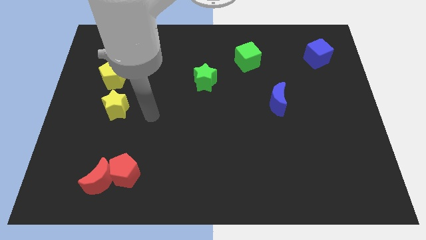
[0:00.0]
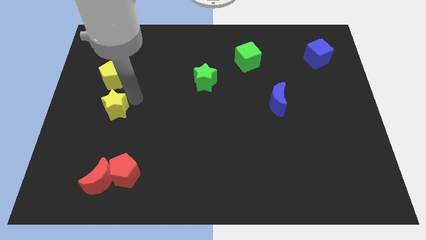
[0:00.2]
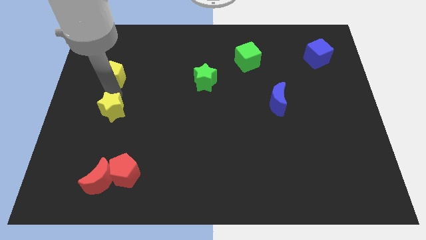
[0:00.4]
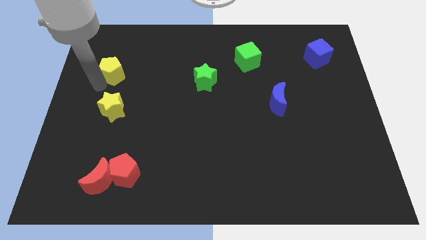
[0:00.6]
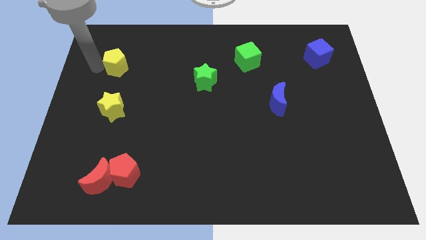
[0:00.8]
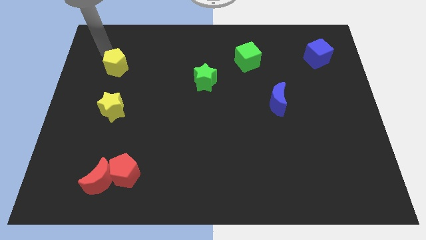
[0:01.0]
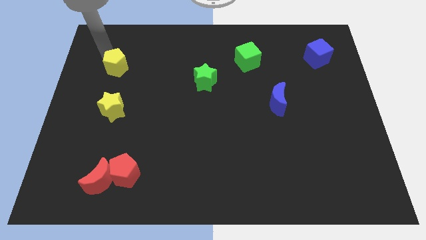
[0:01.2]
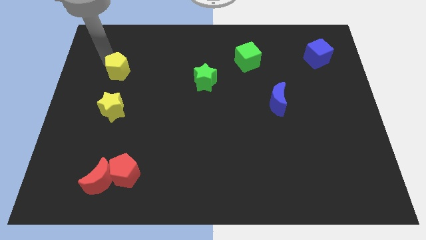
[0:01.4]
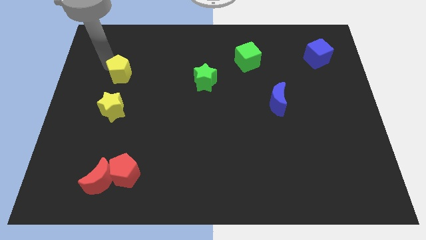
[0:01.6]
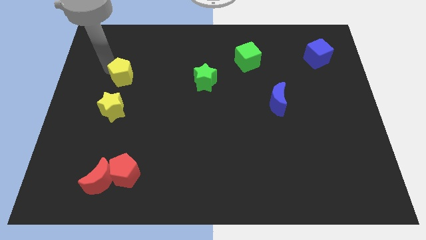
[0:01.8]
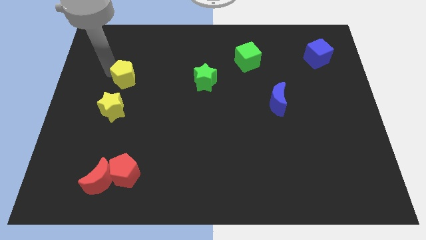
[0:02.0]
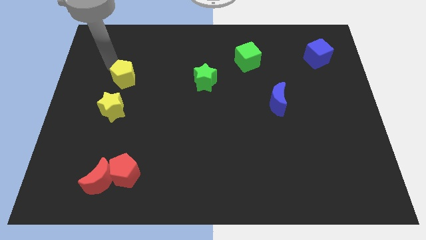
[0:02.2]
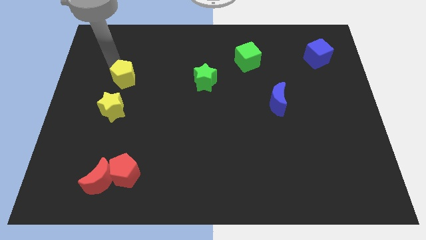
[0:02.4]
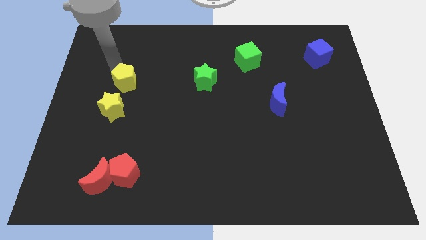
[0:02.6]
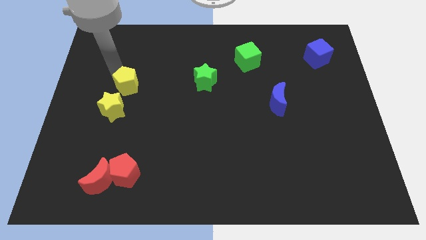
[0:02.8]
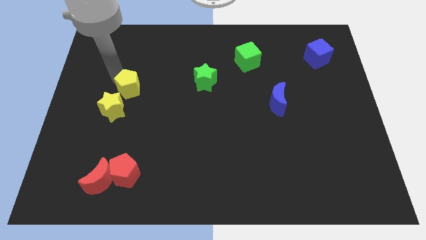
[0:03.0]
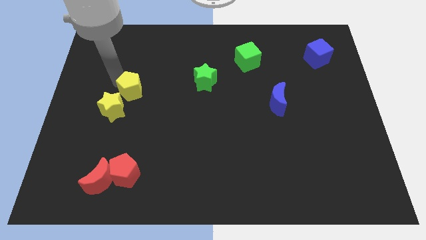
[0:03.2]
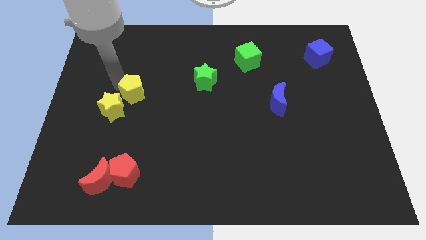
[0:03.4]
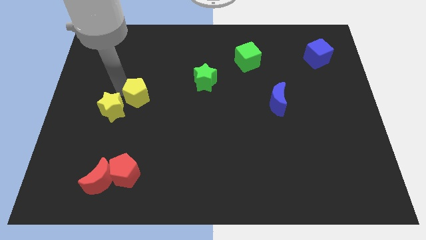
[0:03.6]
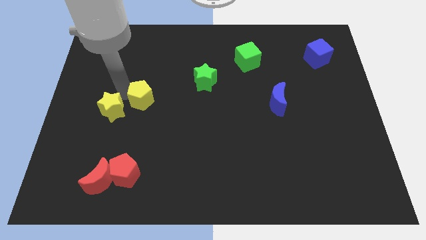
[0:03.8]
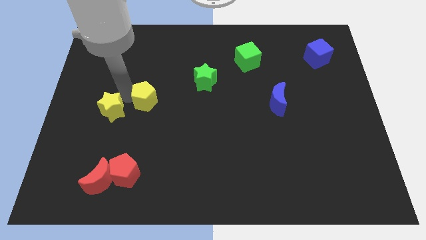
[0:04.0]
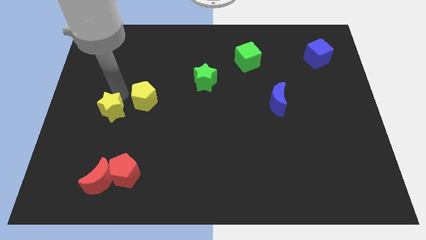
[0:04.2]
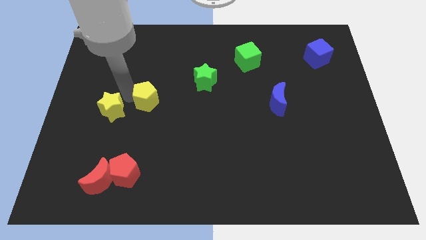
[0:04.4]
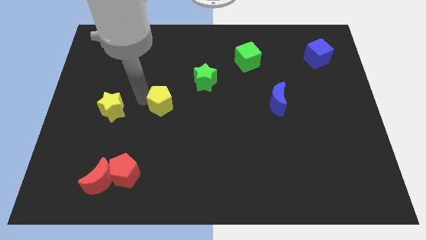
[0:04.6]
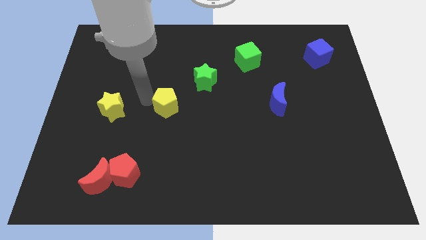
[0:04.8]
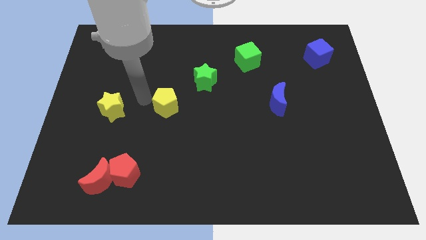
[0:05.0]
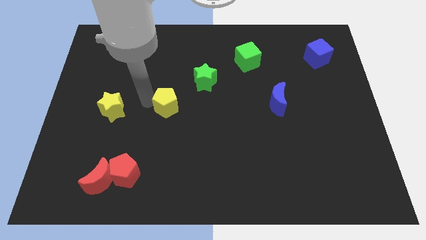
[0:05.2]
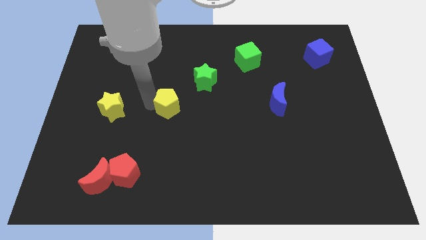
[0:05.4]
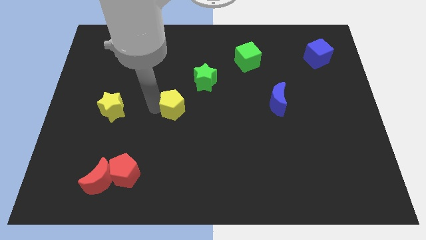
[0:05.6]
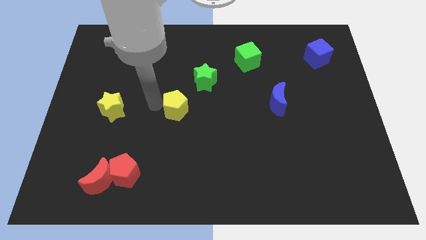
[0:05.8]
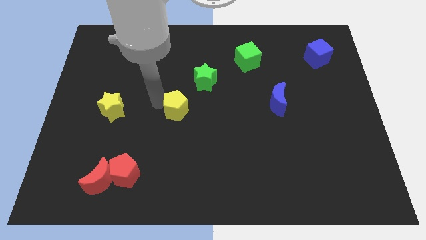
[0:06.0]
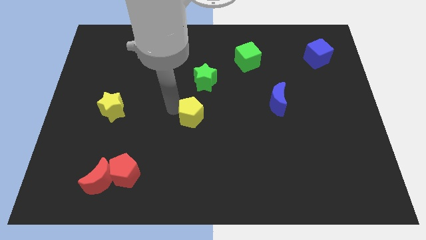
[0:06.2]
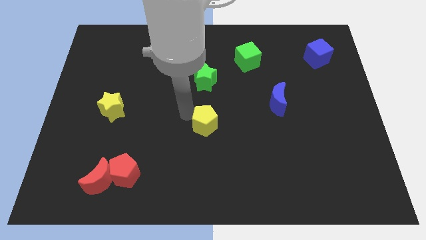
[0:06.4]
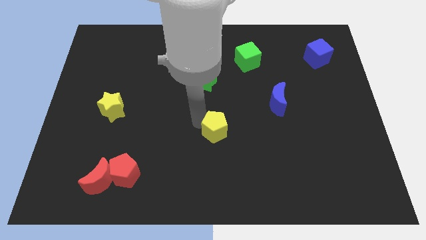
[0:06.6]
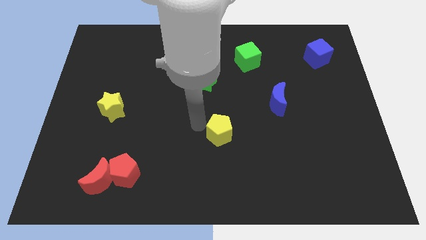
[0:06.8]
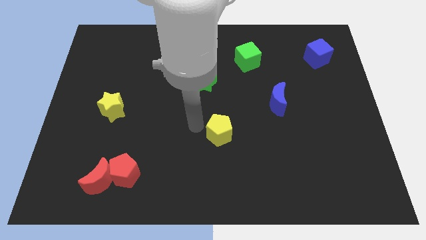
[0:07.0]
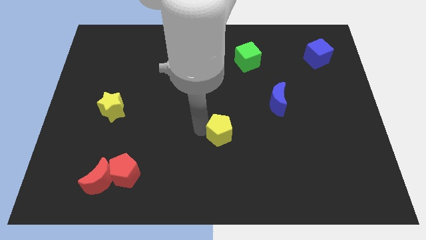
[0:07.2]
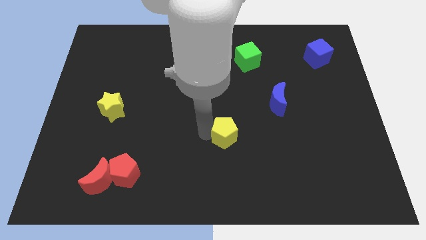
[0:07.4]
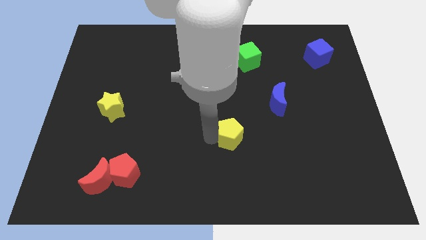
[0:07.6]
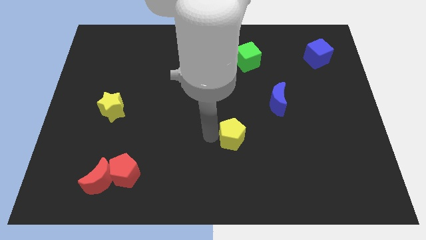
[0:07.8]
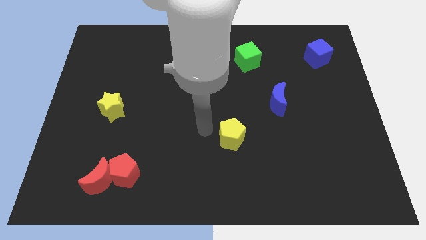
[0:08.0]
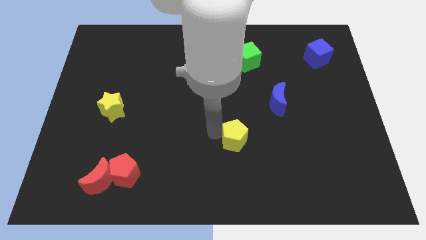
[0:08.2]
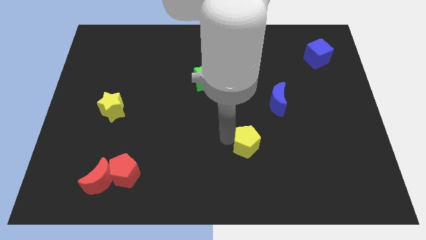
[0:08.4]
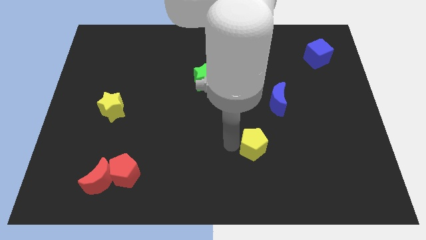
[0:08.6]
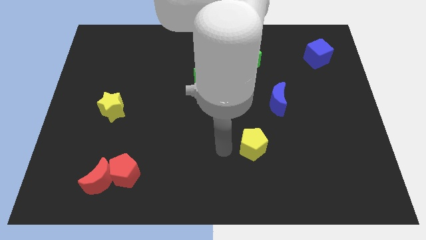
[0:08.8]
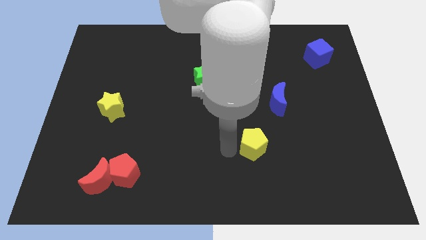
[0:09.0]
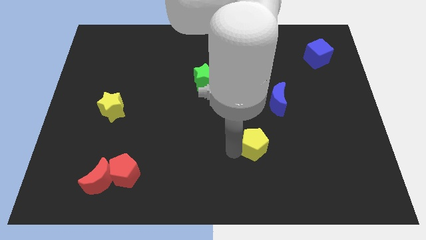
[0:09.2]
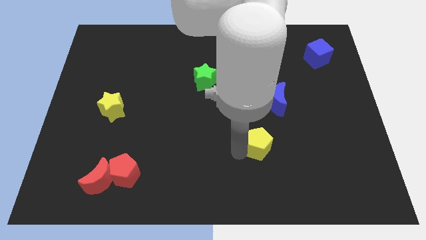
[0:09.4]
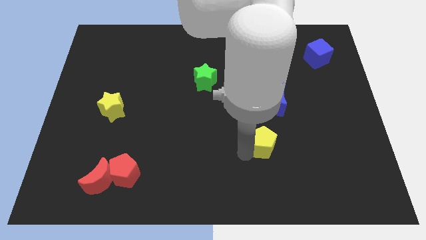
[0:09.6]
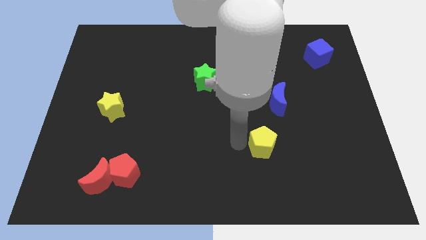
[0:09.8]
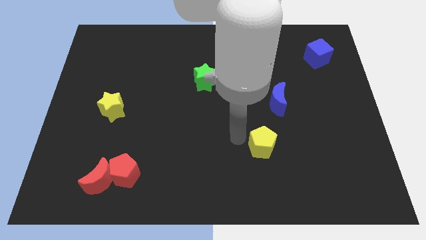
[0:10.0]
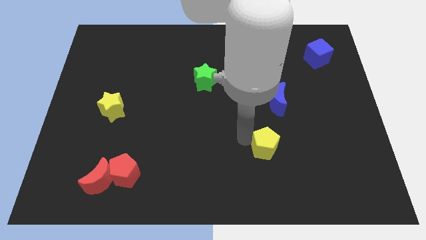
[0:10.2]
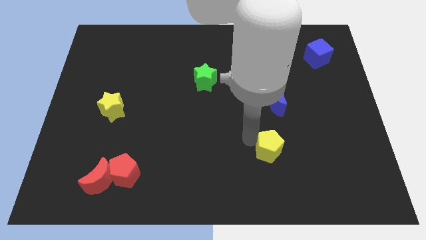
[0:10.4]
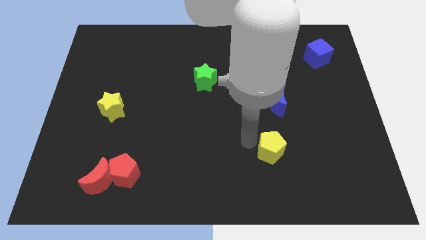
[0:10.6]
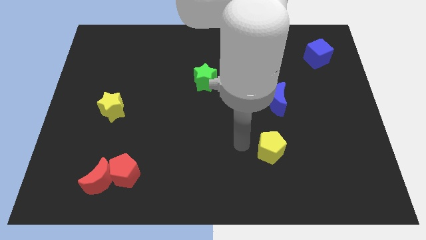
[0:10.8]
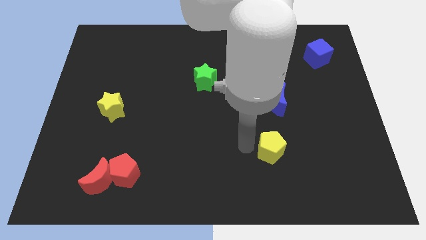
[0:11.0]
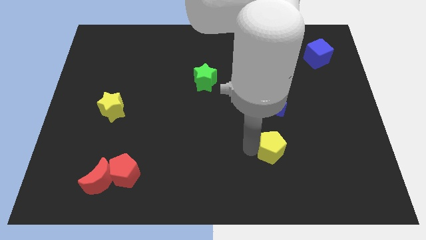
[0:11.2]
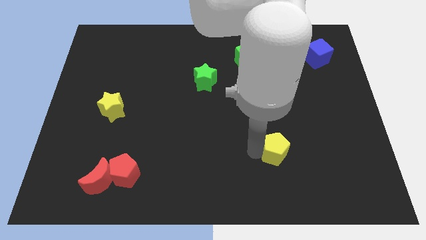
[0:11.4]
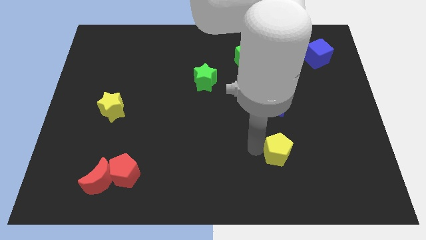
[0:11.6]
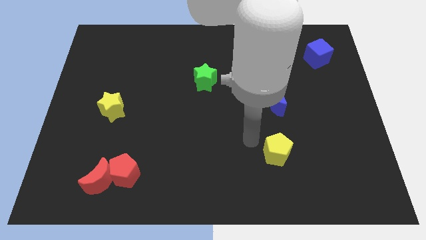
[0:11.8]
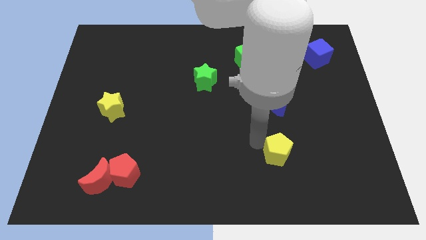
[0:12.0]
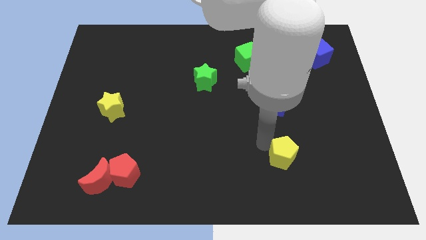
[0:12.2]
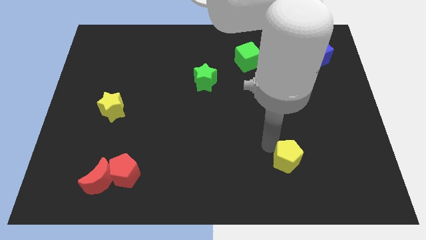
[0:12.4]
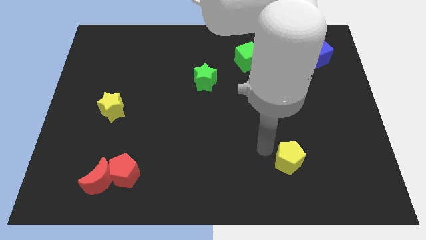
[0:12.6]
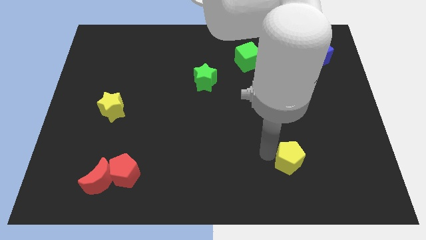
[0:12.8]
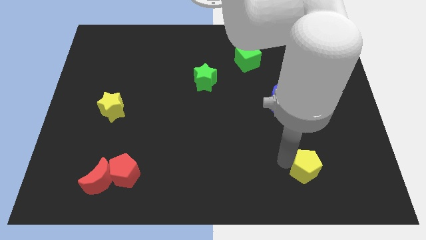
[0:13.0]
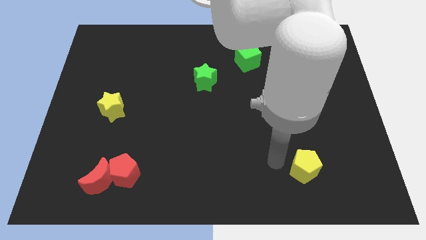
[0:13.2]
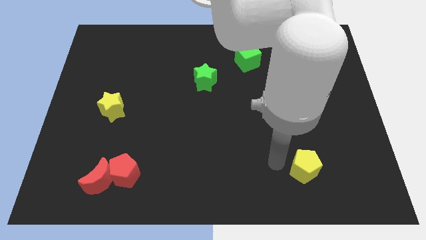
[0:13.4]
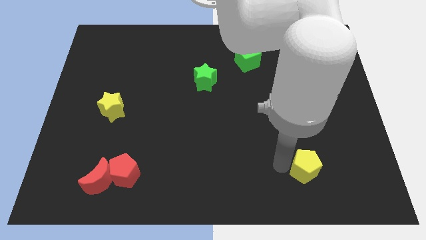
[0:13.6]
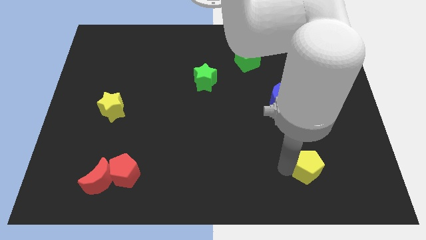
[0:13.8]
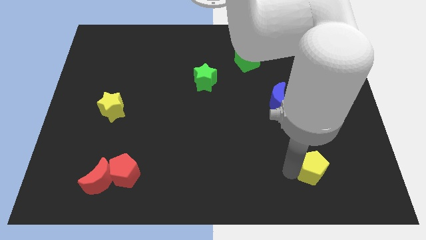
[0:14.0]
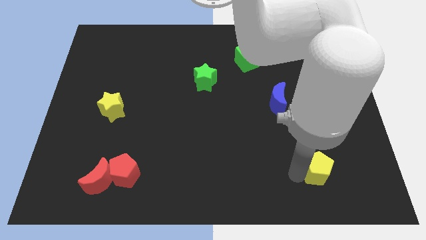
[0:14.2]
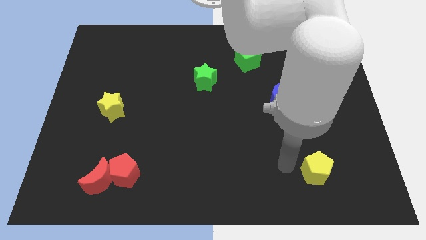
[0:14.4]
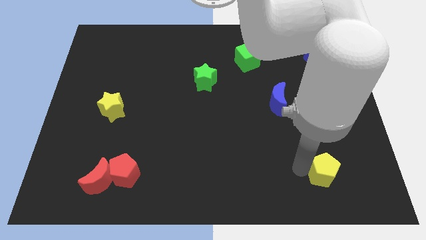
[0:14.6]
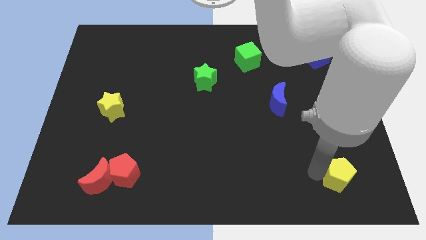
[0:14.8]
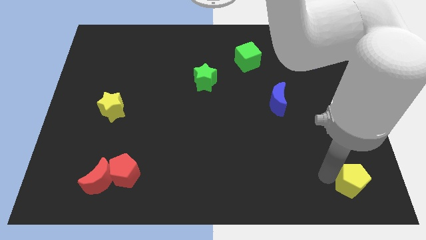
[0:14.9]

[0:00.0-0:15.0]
put the yellow pentagon to the lower right corner

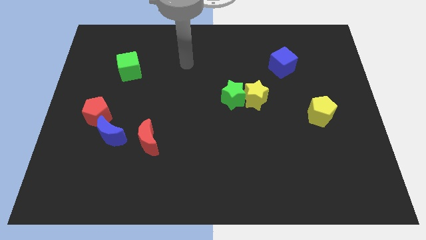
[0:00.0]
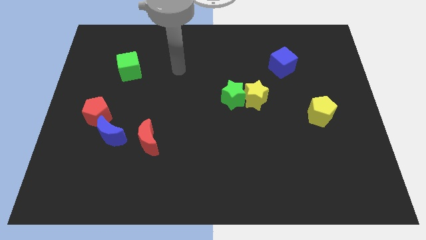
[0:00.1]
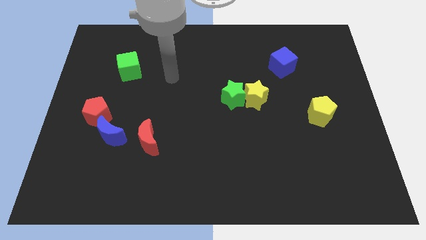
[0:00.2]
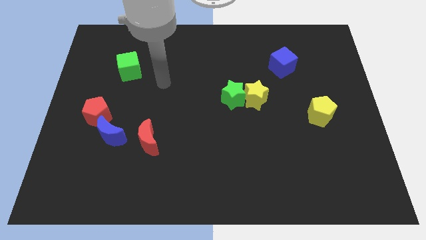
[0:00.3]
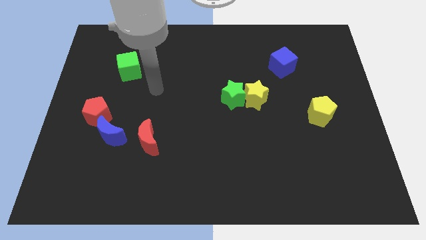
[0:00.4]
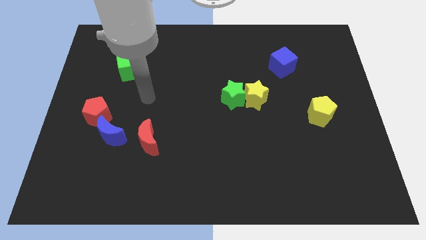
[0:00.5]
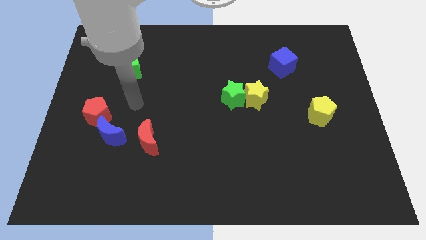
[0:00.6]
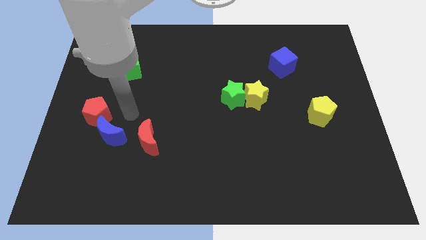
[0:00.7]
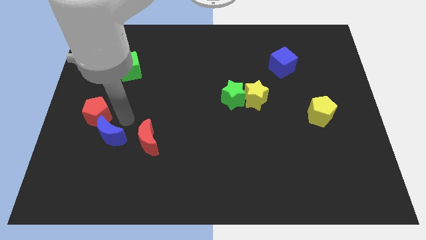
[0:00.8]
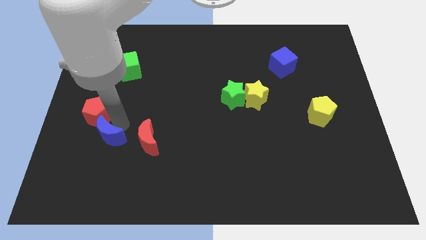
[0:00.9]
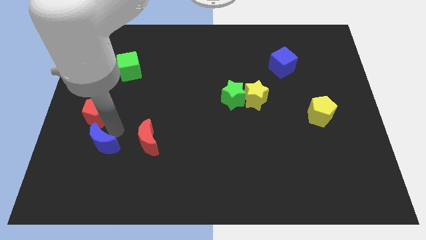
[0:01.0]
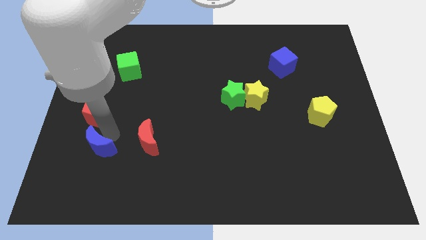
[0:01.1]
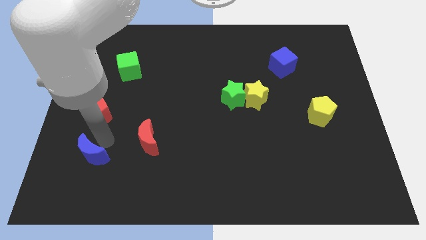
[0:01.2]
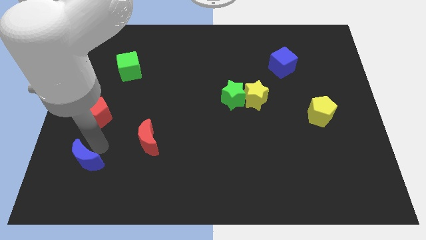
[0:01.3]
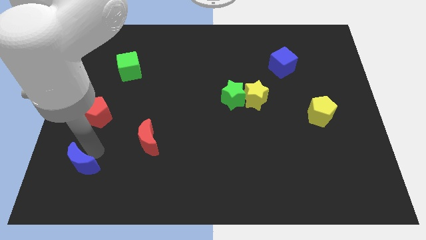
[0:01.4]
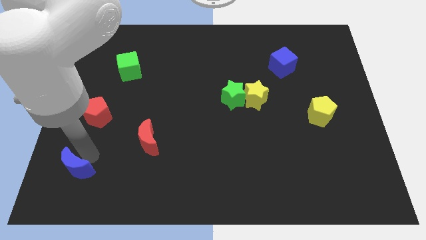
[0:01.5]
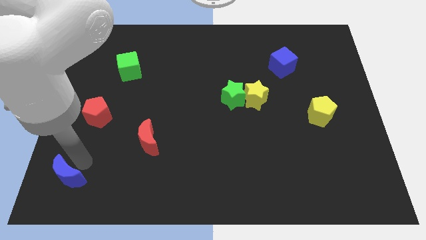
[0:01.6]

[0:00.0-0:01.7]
move the blue moon to the lower left corner
